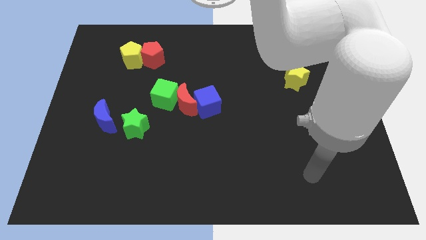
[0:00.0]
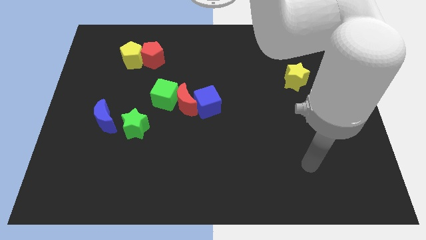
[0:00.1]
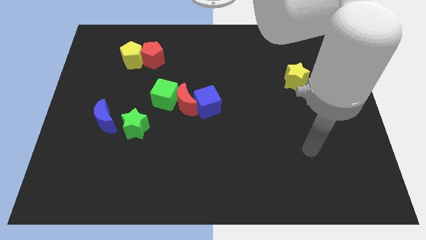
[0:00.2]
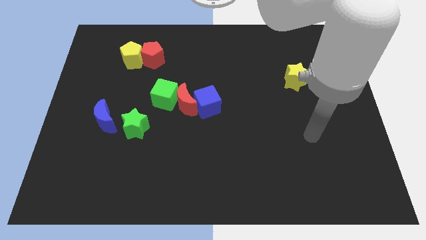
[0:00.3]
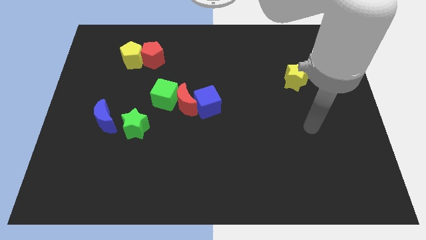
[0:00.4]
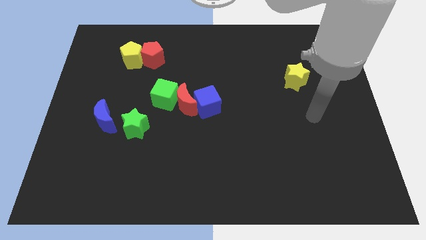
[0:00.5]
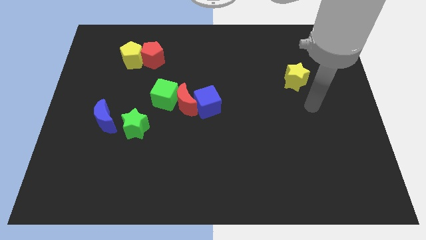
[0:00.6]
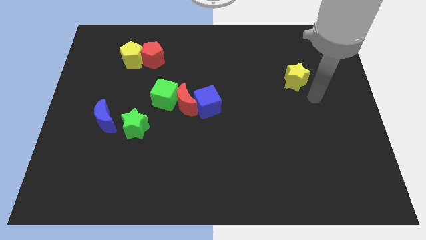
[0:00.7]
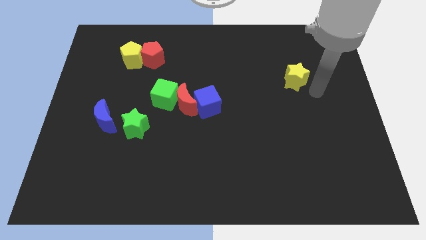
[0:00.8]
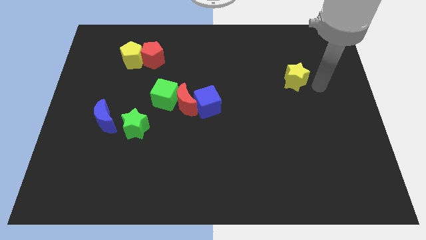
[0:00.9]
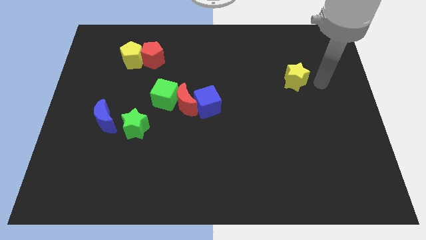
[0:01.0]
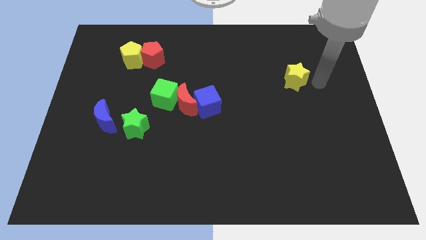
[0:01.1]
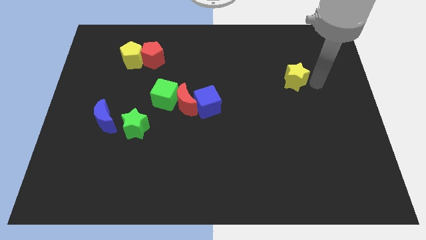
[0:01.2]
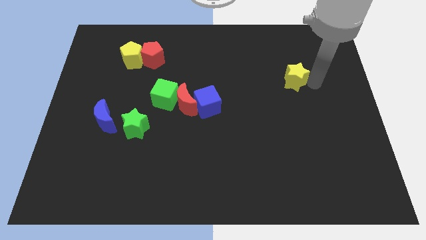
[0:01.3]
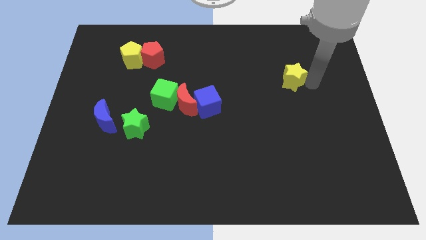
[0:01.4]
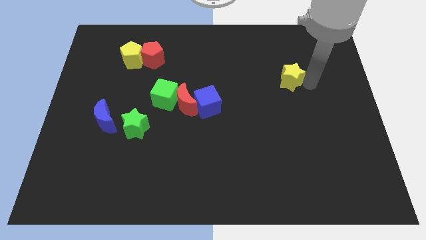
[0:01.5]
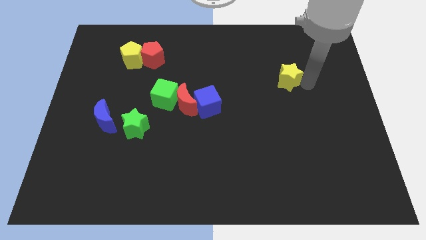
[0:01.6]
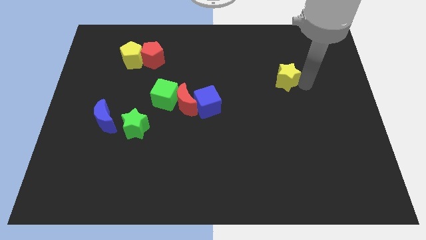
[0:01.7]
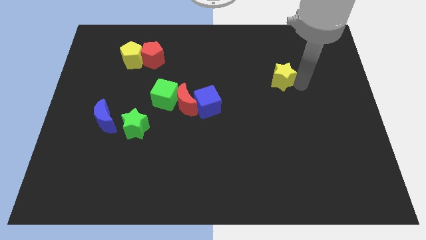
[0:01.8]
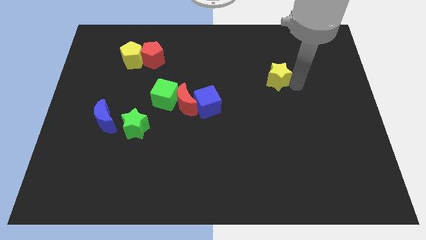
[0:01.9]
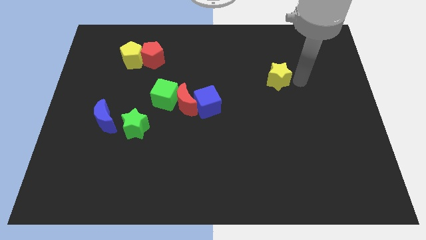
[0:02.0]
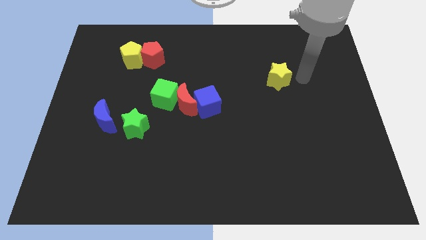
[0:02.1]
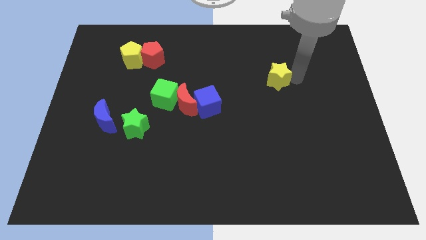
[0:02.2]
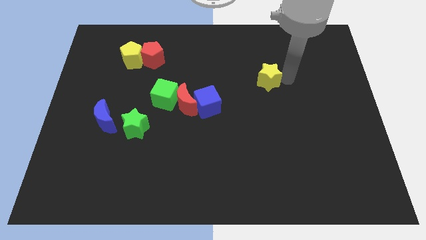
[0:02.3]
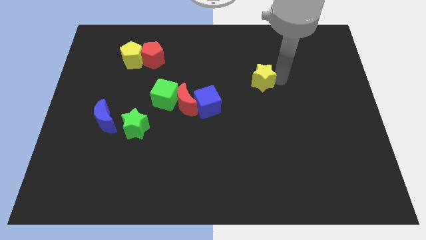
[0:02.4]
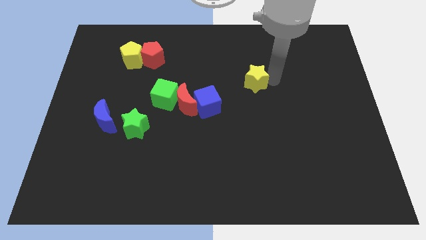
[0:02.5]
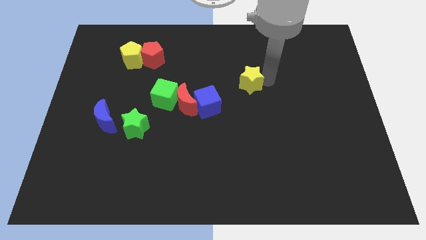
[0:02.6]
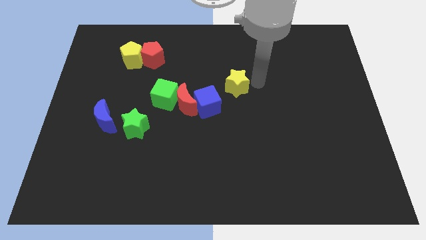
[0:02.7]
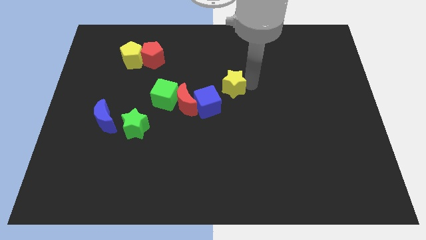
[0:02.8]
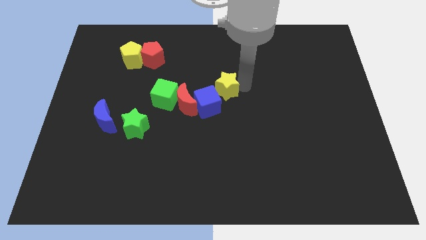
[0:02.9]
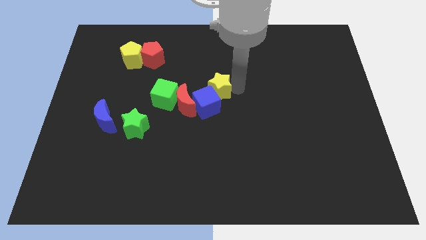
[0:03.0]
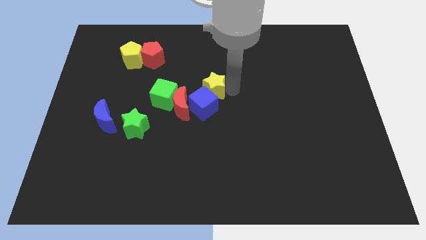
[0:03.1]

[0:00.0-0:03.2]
move the yellow star left

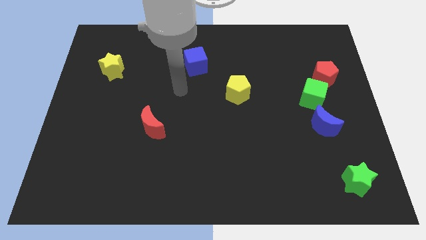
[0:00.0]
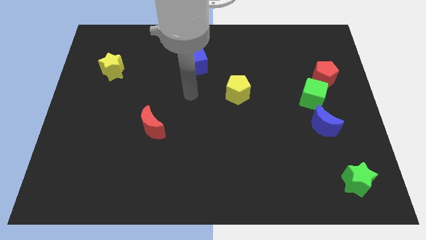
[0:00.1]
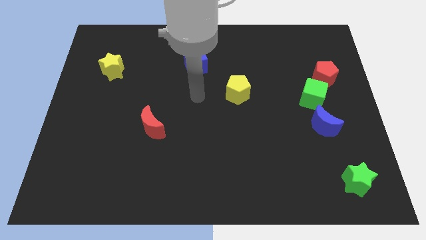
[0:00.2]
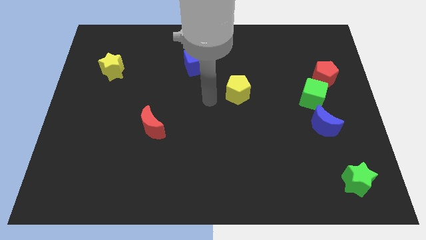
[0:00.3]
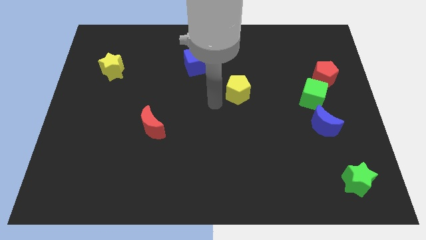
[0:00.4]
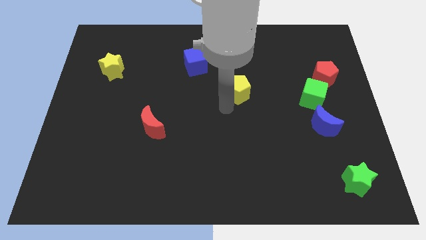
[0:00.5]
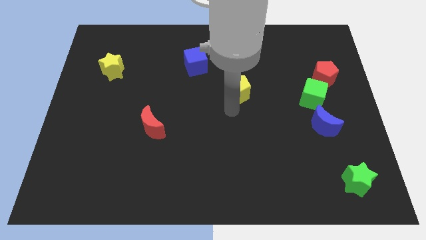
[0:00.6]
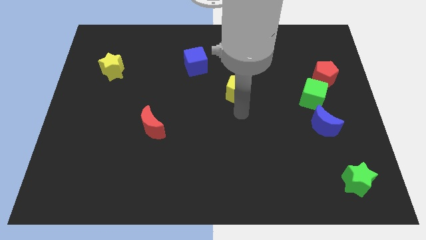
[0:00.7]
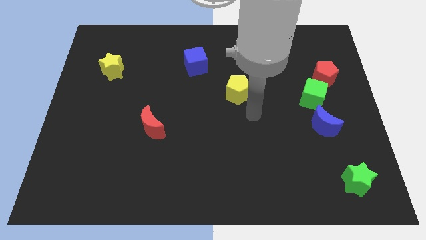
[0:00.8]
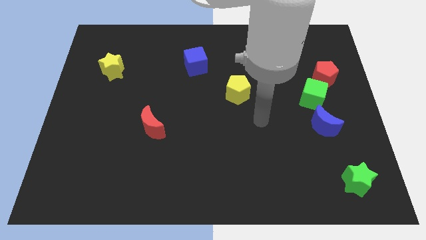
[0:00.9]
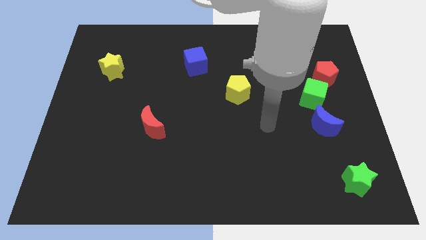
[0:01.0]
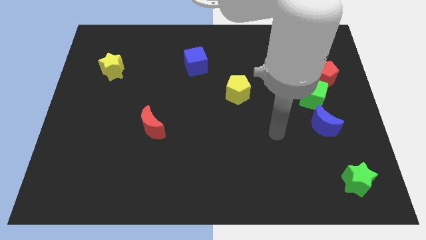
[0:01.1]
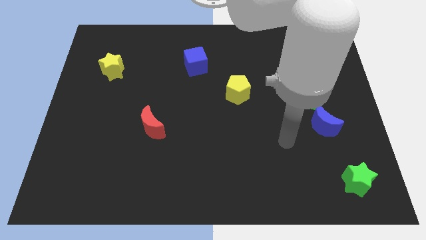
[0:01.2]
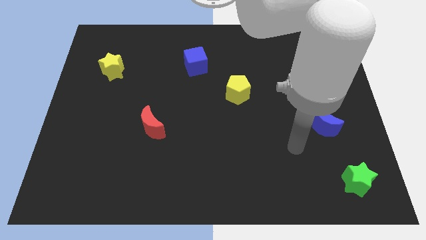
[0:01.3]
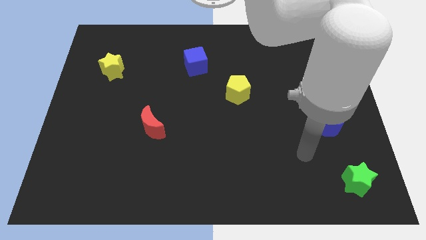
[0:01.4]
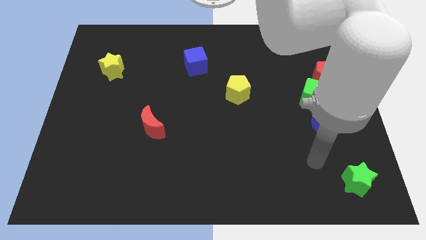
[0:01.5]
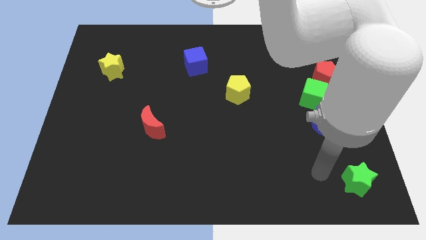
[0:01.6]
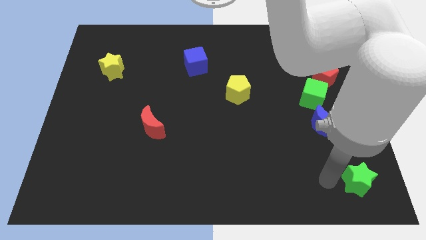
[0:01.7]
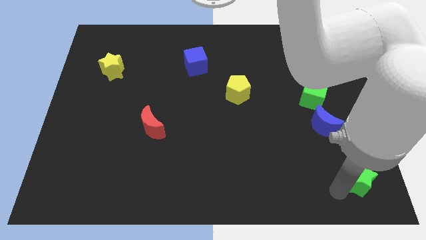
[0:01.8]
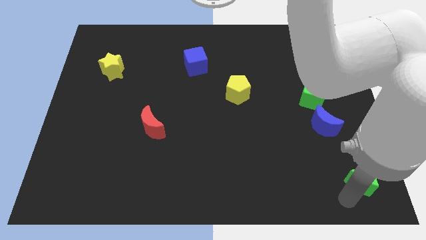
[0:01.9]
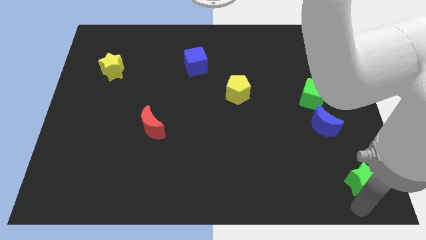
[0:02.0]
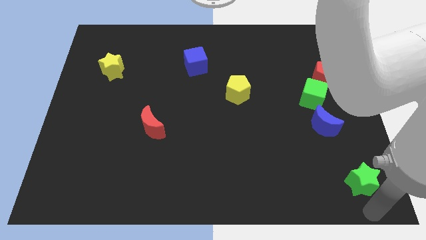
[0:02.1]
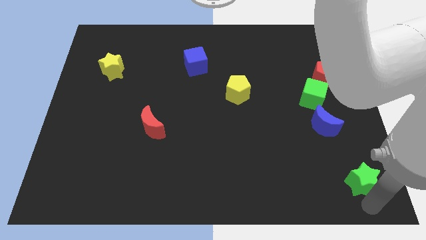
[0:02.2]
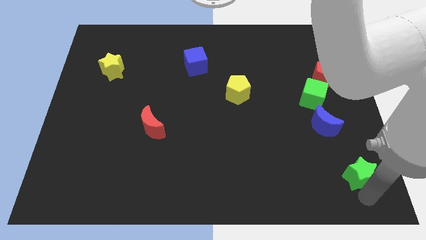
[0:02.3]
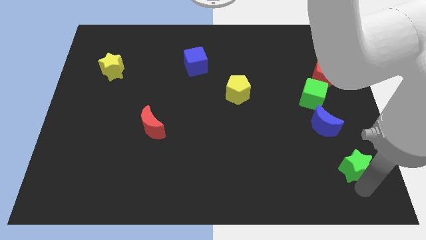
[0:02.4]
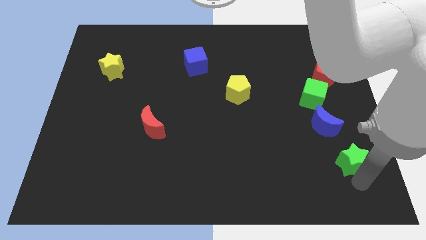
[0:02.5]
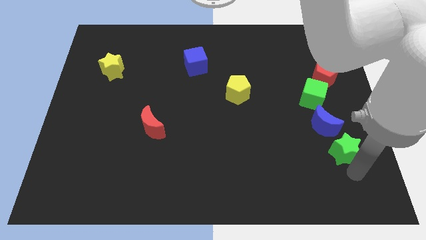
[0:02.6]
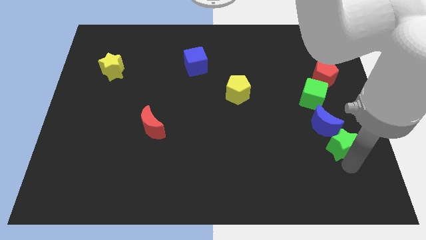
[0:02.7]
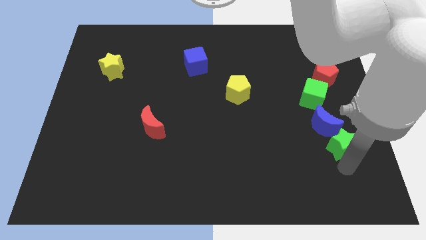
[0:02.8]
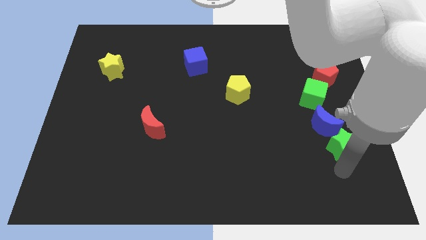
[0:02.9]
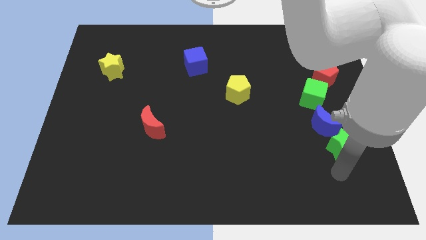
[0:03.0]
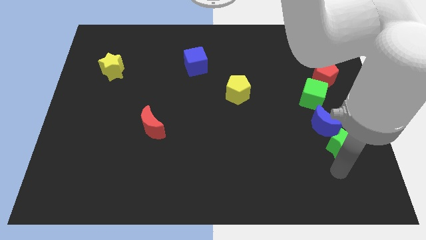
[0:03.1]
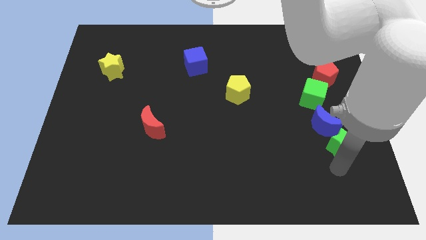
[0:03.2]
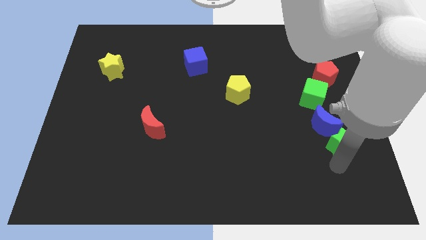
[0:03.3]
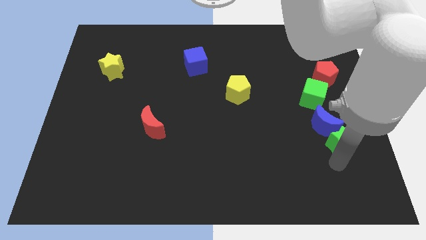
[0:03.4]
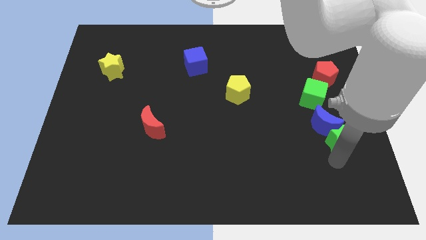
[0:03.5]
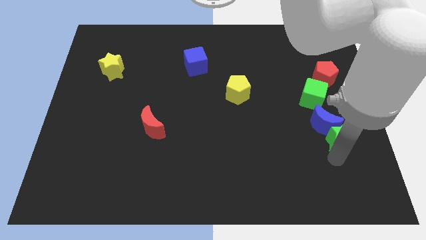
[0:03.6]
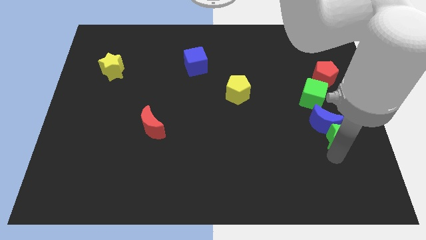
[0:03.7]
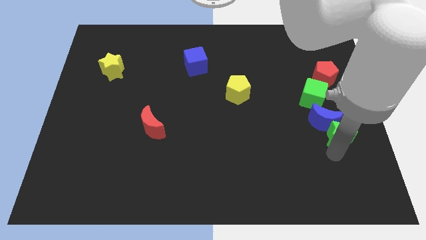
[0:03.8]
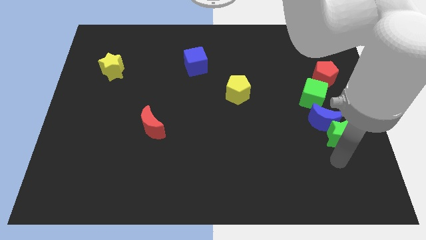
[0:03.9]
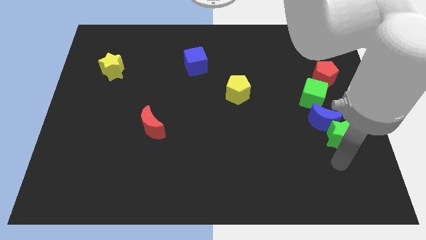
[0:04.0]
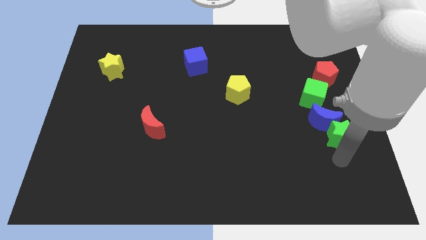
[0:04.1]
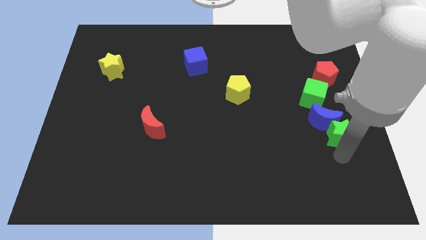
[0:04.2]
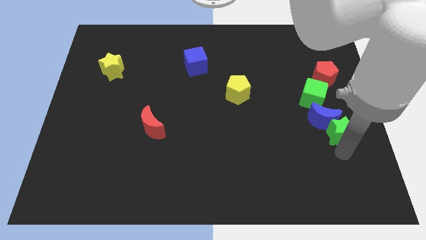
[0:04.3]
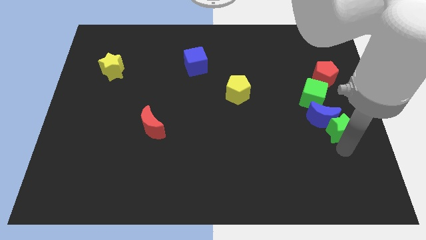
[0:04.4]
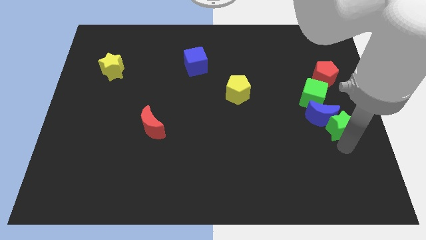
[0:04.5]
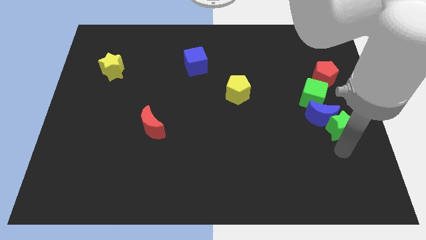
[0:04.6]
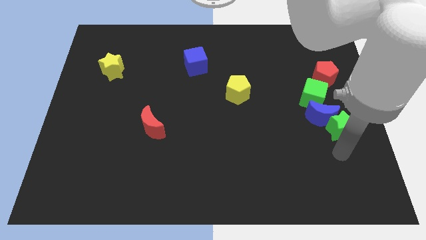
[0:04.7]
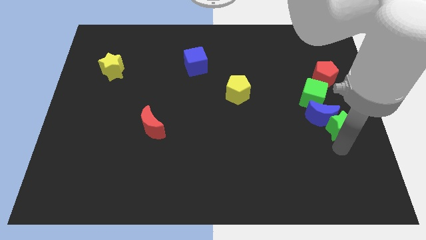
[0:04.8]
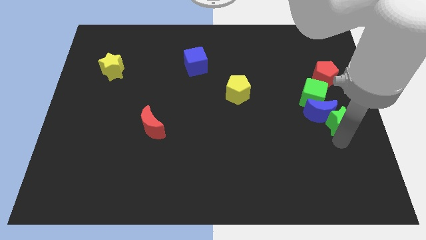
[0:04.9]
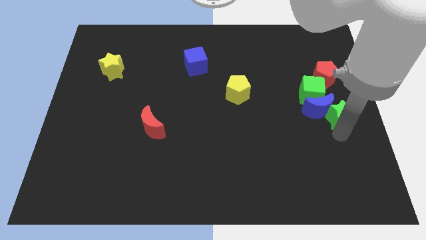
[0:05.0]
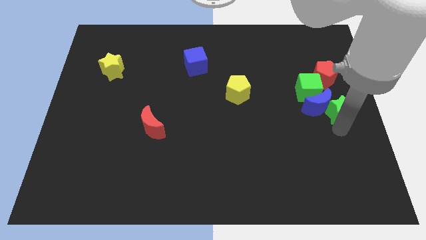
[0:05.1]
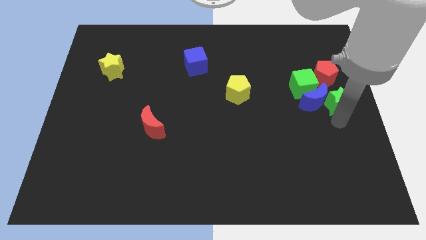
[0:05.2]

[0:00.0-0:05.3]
slide the green star up
